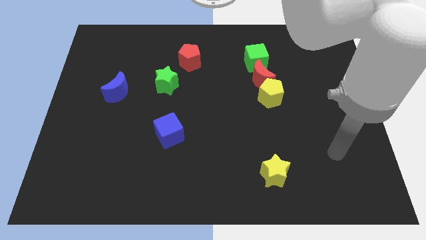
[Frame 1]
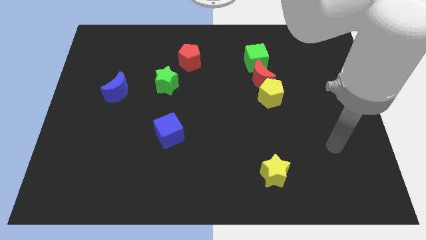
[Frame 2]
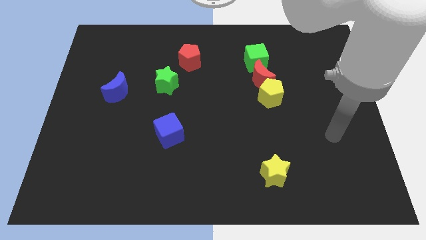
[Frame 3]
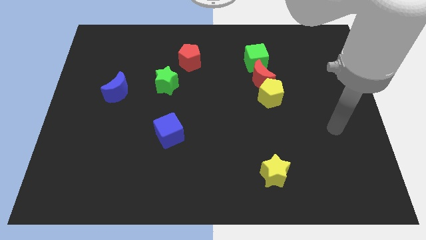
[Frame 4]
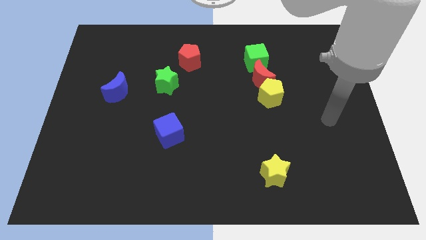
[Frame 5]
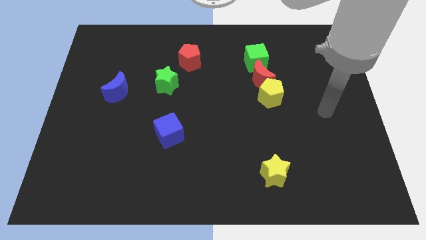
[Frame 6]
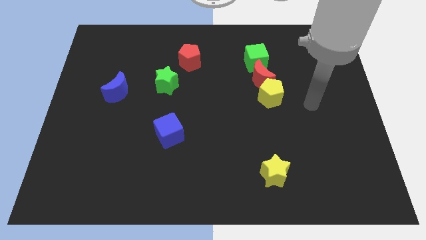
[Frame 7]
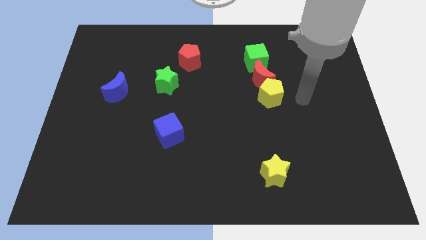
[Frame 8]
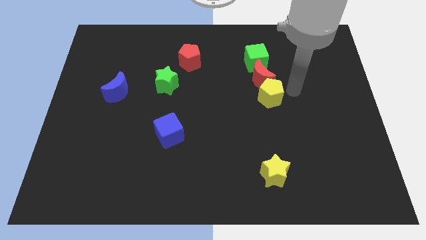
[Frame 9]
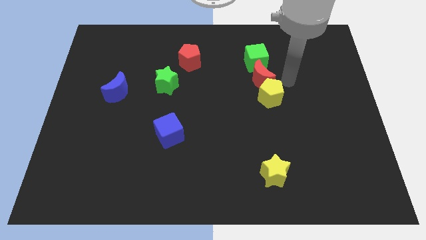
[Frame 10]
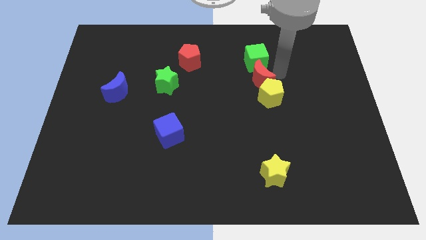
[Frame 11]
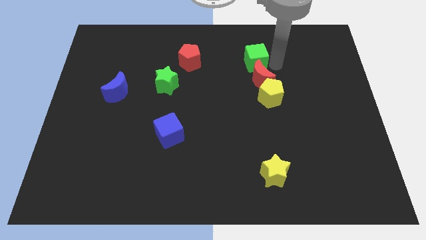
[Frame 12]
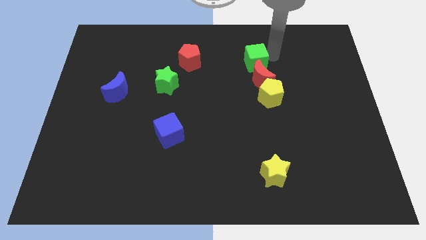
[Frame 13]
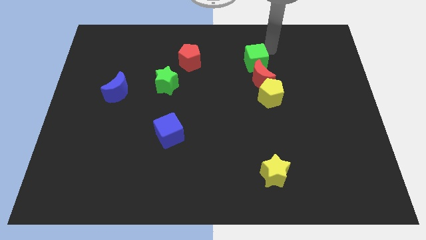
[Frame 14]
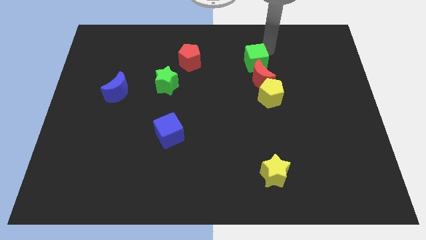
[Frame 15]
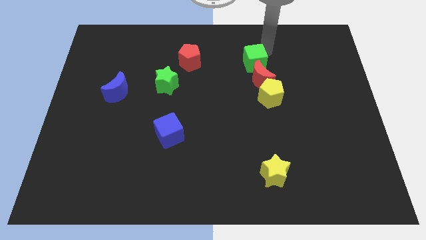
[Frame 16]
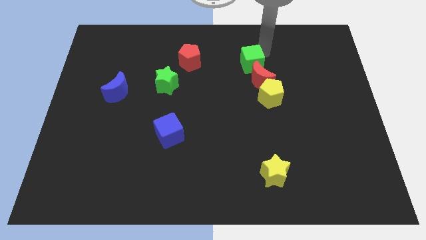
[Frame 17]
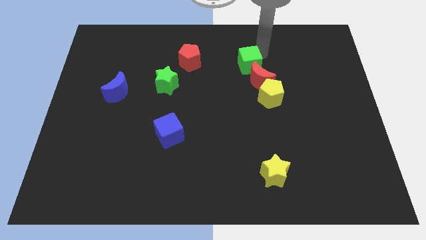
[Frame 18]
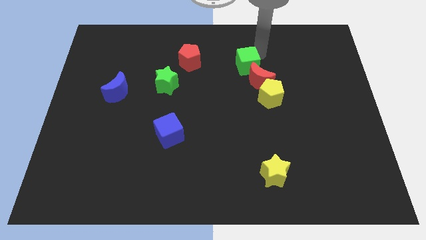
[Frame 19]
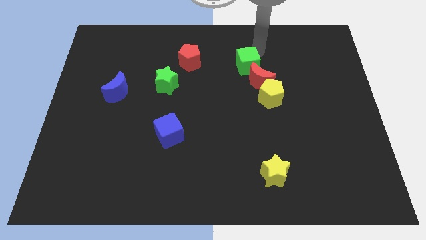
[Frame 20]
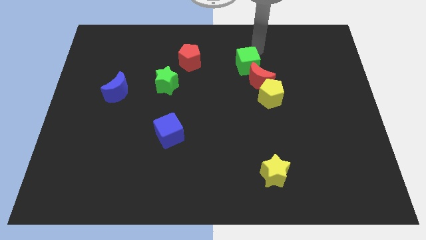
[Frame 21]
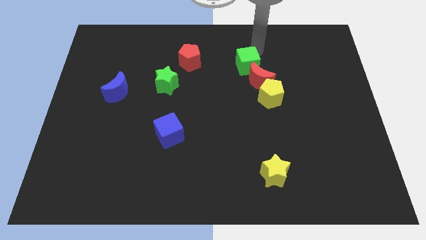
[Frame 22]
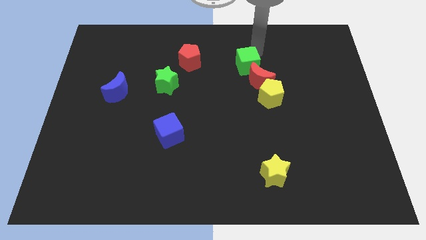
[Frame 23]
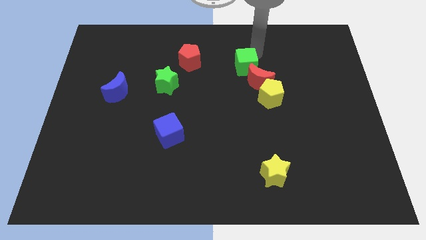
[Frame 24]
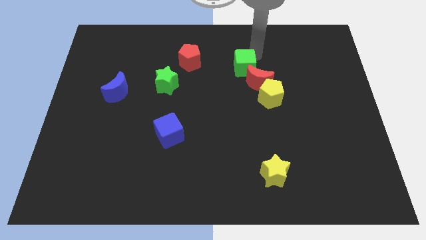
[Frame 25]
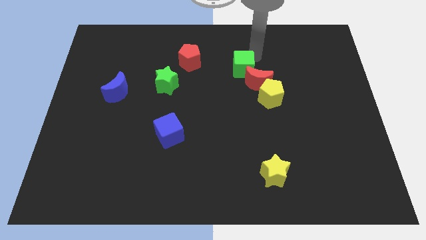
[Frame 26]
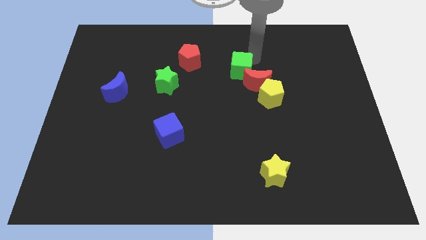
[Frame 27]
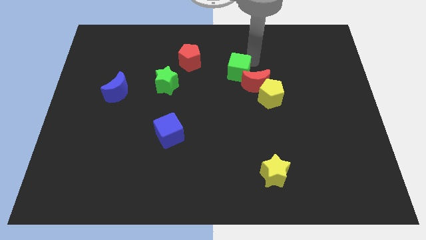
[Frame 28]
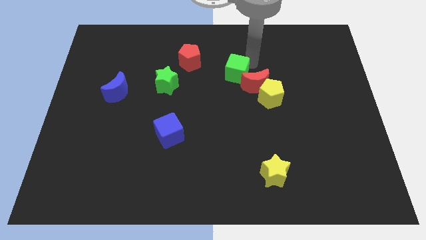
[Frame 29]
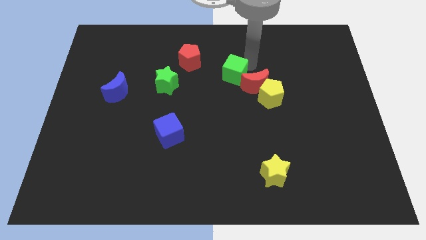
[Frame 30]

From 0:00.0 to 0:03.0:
slightly move the green cube down and then to the left

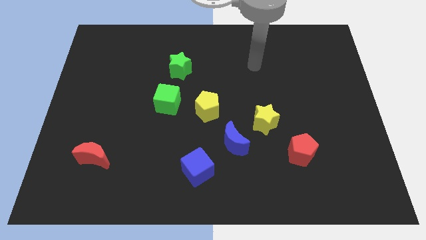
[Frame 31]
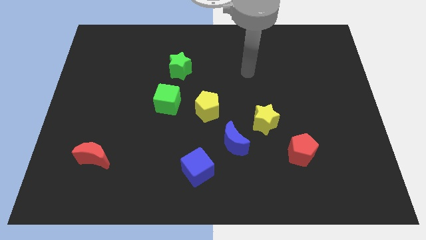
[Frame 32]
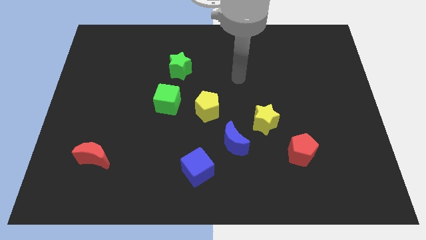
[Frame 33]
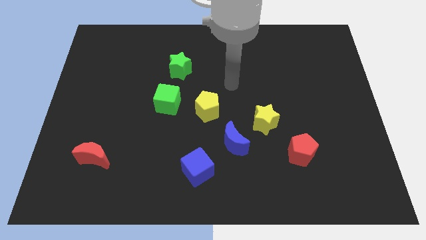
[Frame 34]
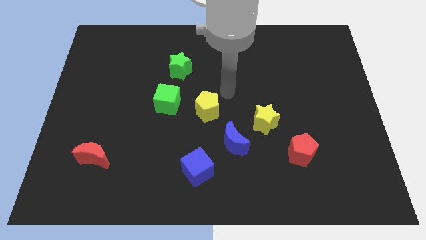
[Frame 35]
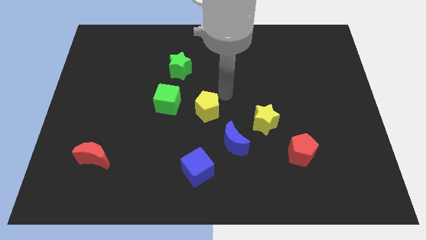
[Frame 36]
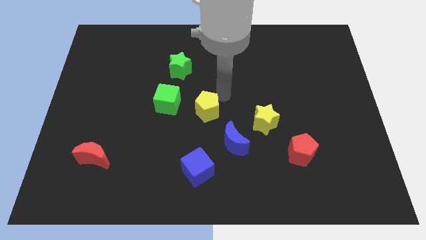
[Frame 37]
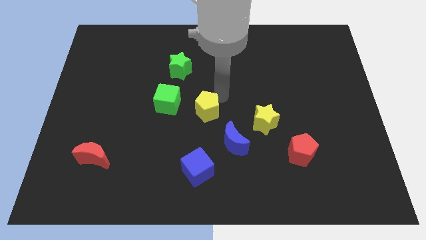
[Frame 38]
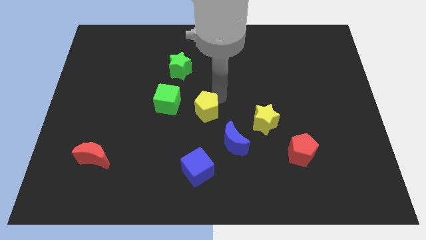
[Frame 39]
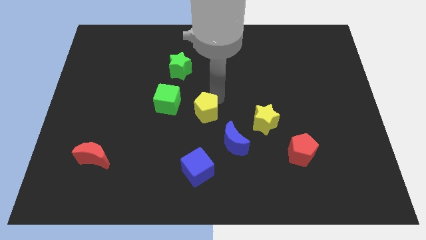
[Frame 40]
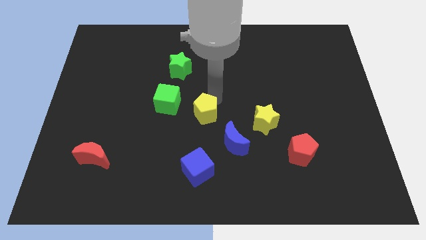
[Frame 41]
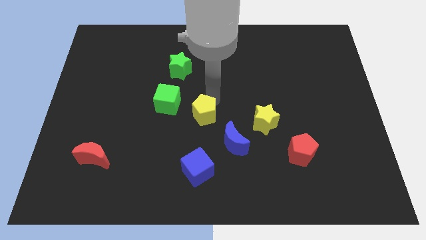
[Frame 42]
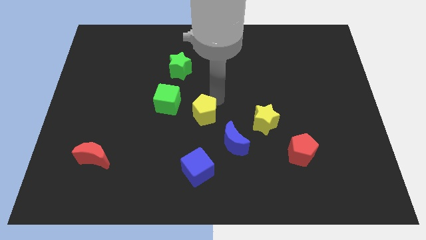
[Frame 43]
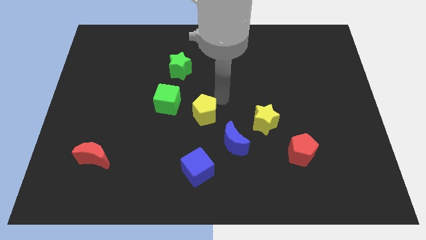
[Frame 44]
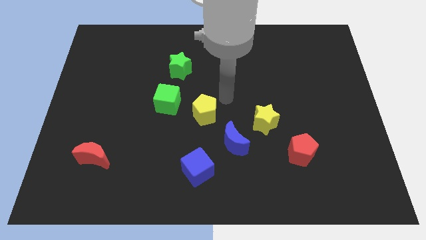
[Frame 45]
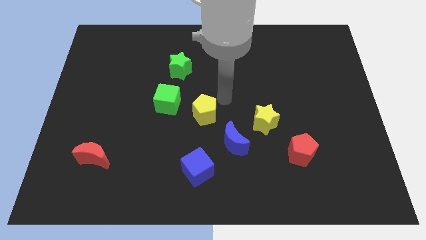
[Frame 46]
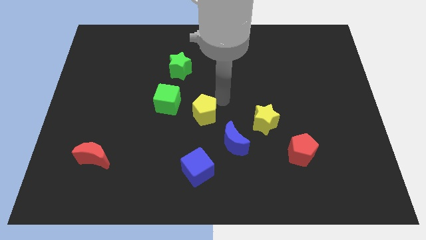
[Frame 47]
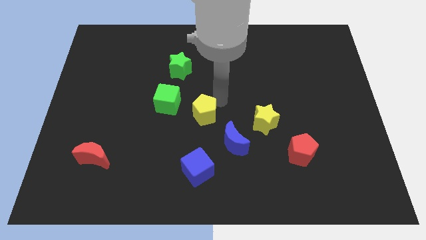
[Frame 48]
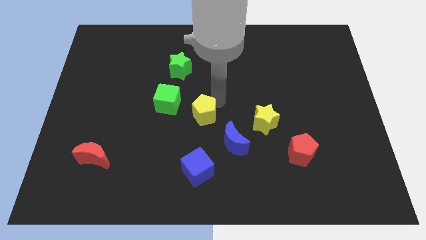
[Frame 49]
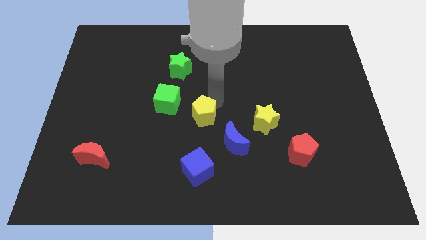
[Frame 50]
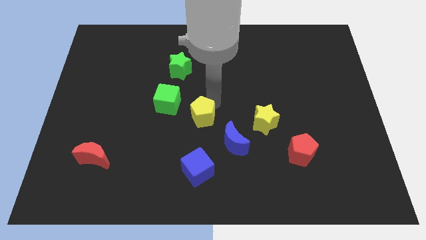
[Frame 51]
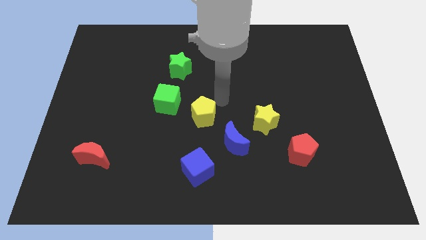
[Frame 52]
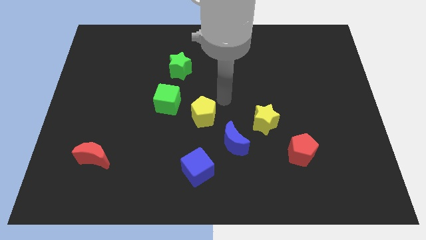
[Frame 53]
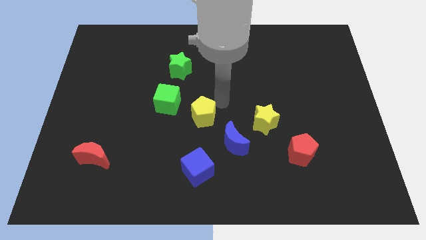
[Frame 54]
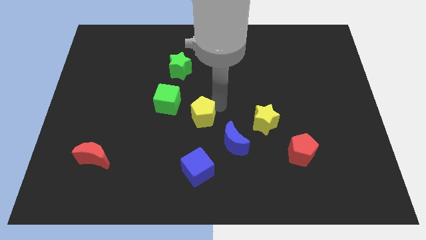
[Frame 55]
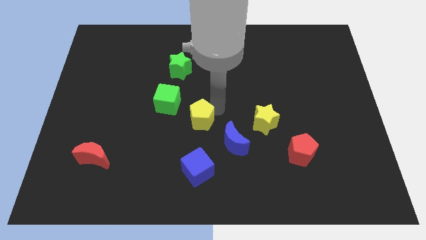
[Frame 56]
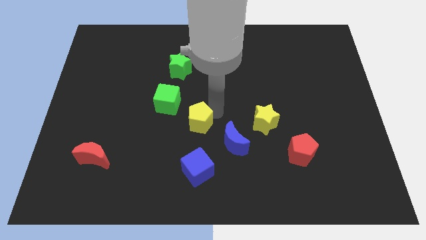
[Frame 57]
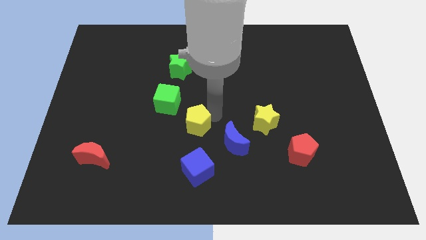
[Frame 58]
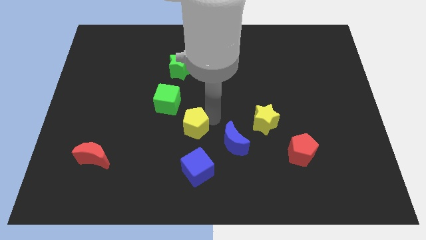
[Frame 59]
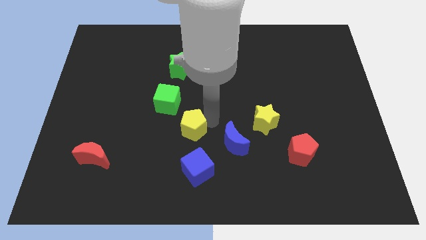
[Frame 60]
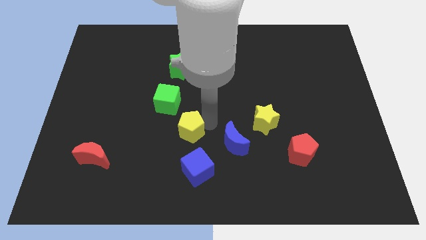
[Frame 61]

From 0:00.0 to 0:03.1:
slide the yellow pentagon down and to the left diagonally a bit

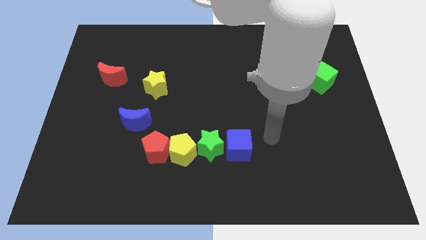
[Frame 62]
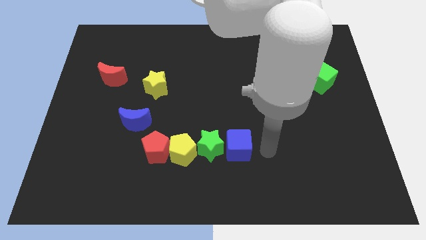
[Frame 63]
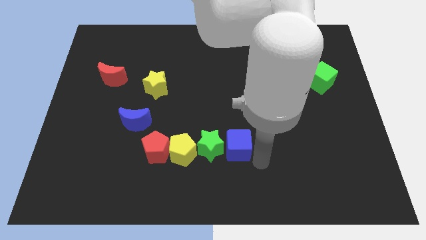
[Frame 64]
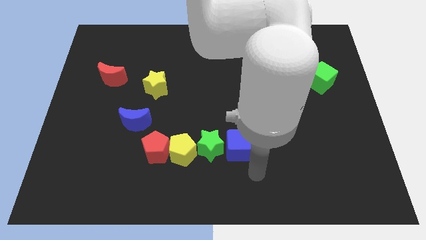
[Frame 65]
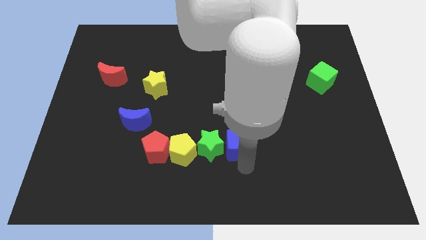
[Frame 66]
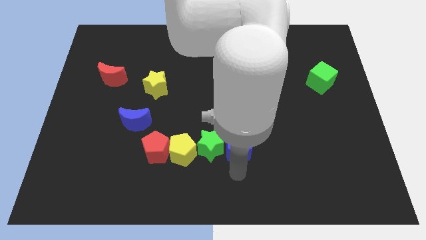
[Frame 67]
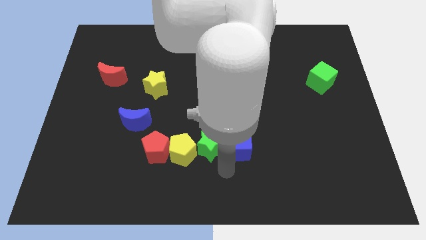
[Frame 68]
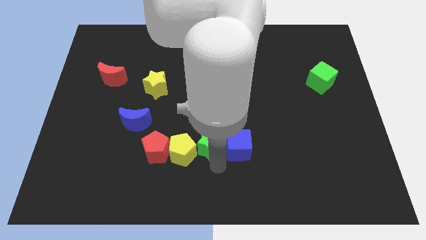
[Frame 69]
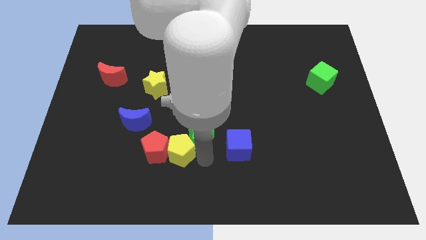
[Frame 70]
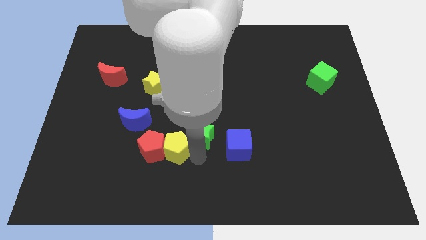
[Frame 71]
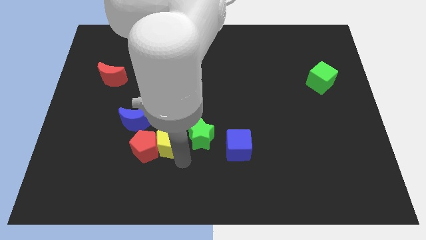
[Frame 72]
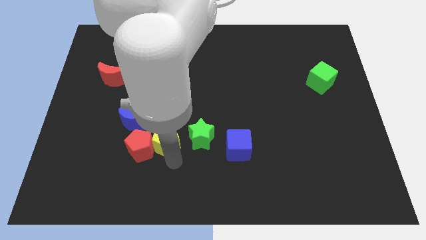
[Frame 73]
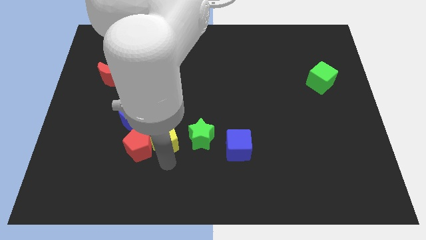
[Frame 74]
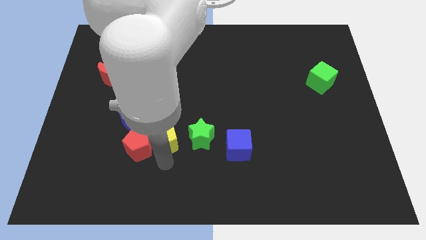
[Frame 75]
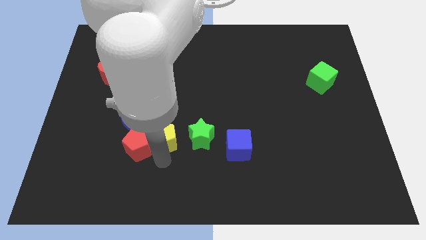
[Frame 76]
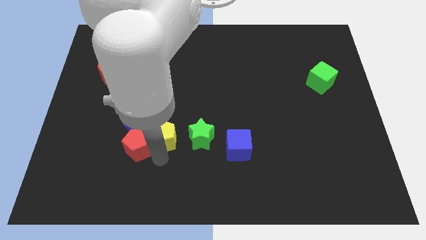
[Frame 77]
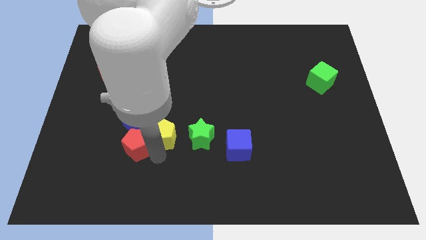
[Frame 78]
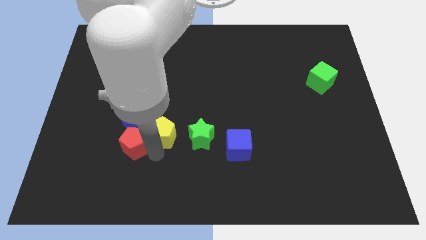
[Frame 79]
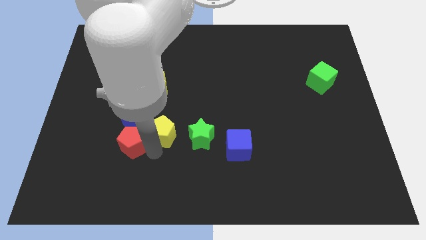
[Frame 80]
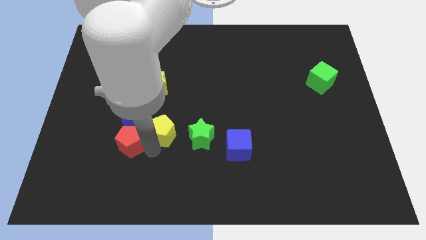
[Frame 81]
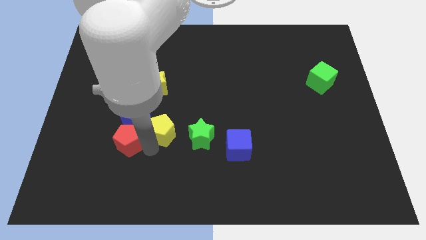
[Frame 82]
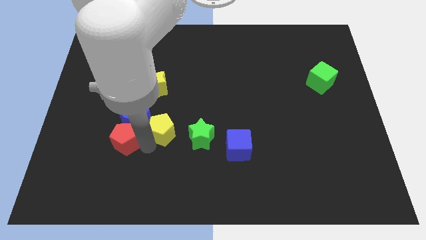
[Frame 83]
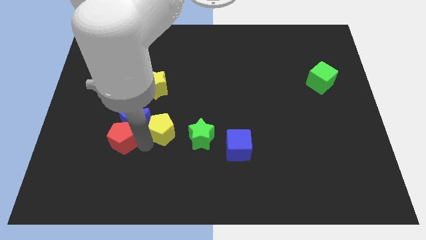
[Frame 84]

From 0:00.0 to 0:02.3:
slightly push the red pentagon diagonally up and left
